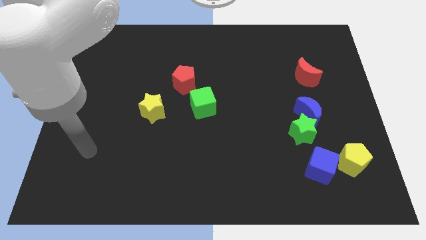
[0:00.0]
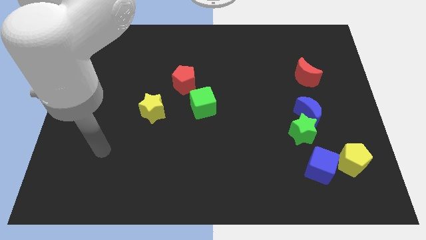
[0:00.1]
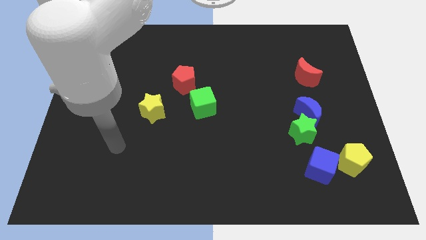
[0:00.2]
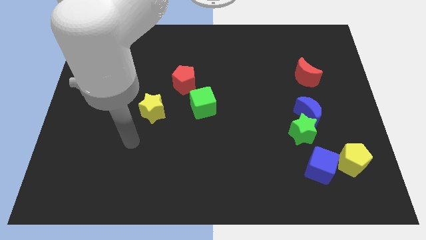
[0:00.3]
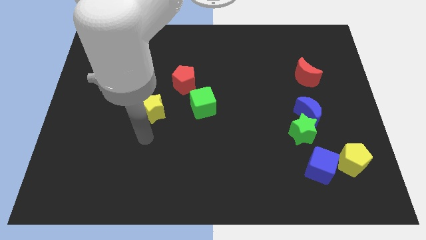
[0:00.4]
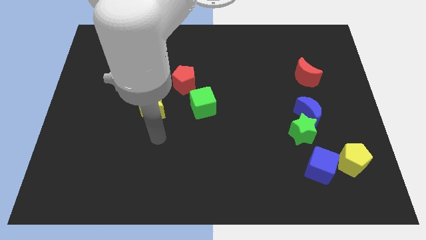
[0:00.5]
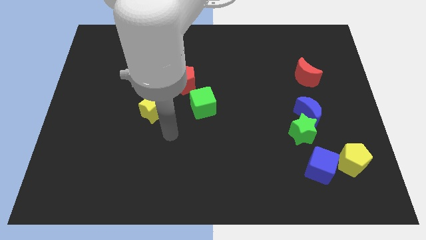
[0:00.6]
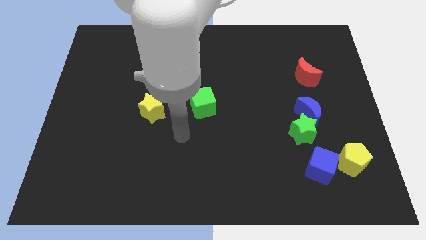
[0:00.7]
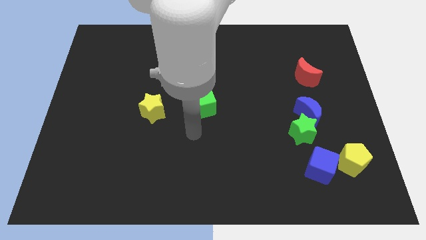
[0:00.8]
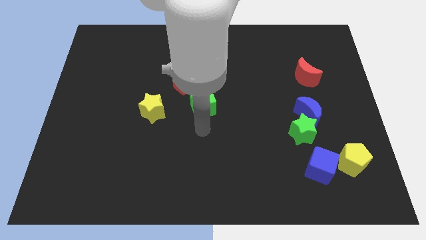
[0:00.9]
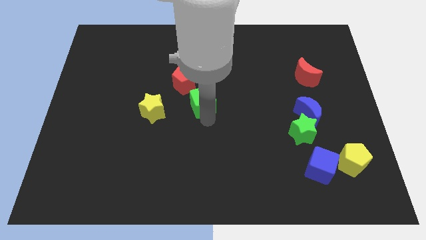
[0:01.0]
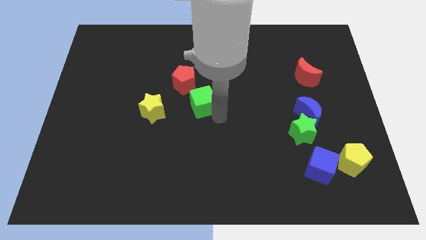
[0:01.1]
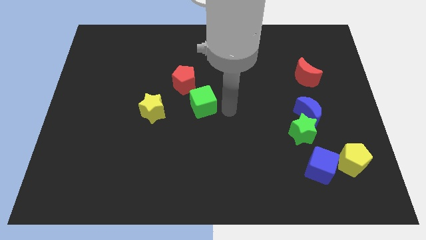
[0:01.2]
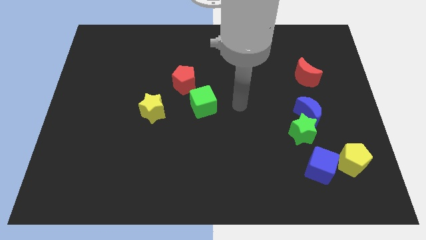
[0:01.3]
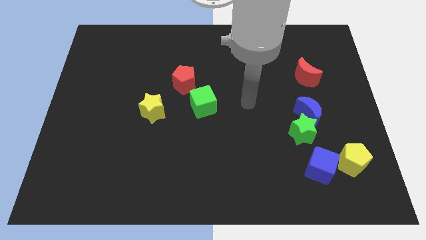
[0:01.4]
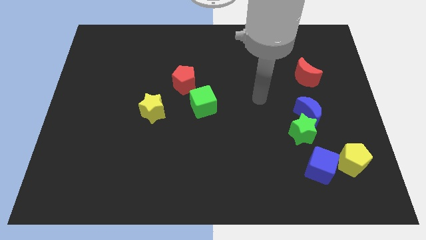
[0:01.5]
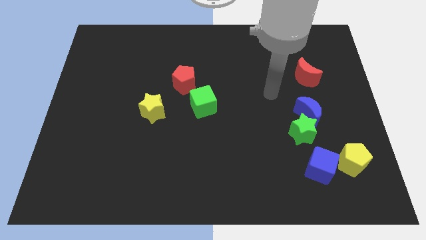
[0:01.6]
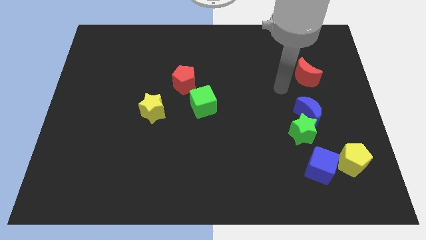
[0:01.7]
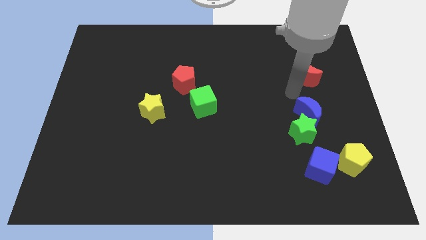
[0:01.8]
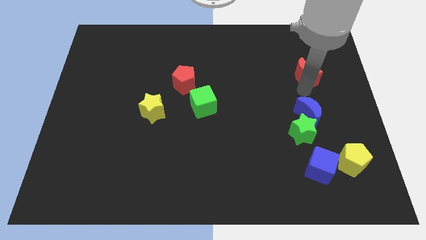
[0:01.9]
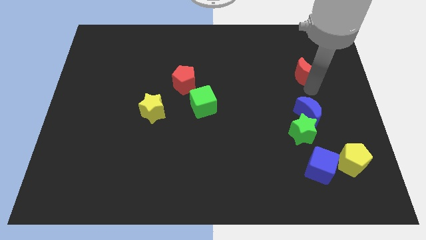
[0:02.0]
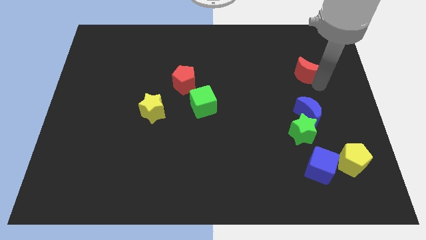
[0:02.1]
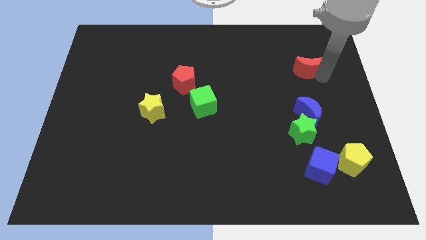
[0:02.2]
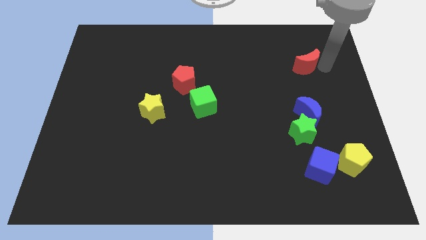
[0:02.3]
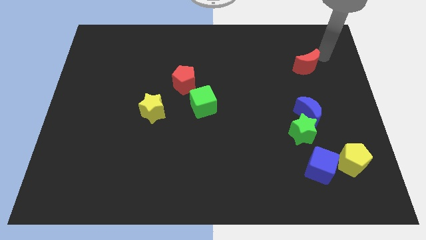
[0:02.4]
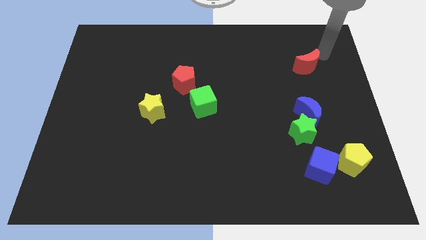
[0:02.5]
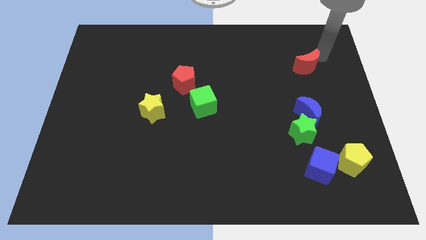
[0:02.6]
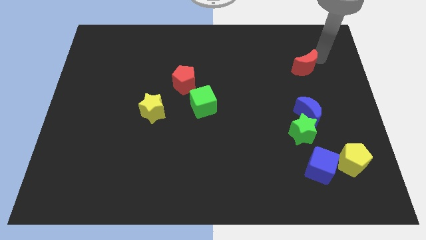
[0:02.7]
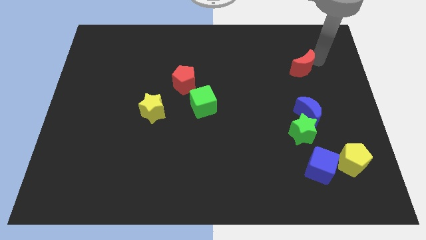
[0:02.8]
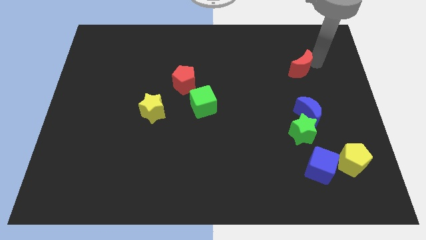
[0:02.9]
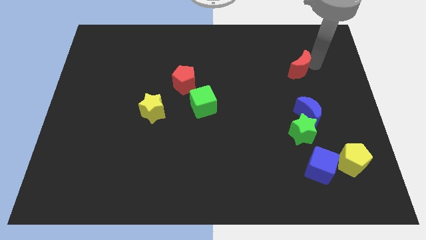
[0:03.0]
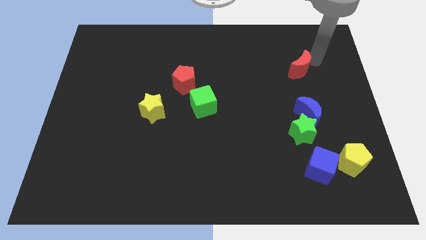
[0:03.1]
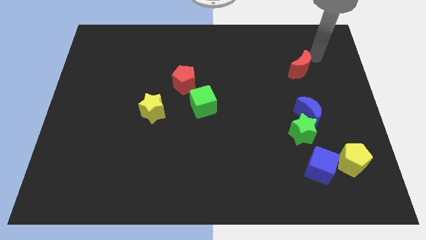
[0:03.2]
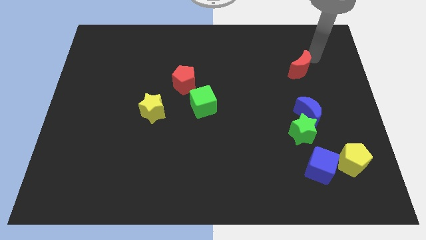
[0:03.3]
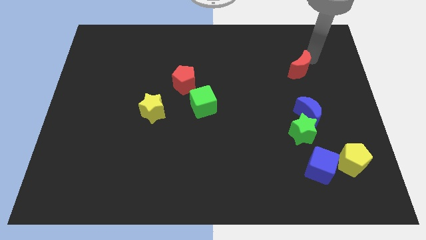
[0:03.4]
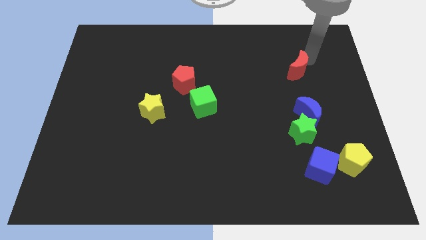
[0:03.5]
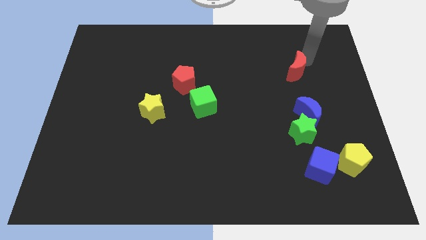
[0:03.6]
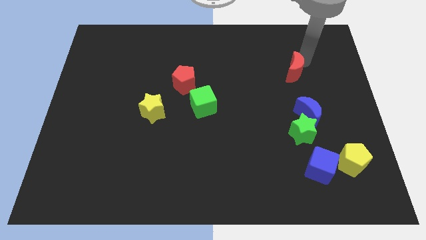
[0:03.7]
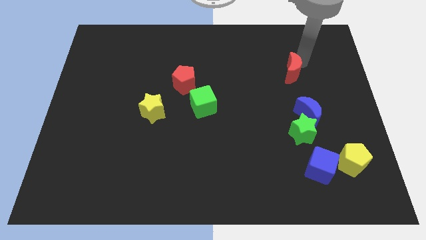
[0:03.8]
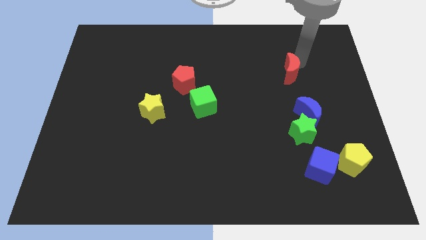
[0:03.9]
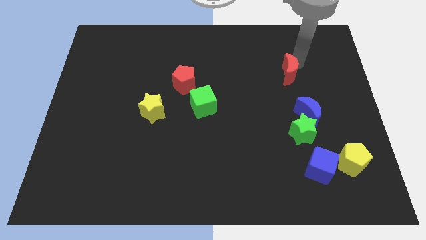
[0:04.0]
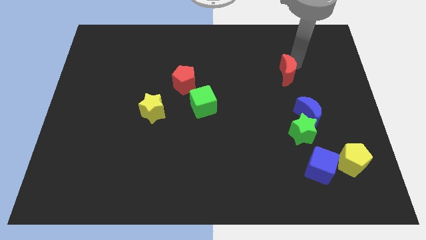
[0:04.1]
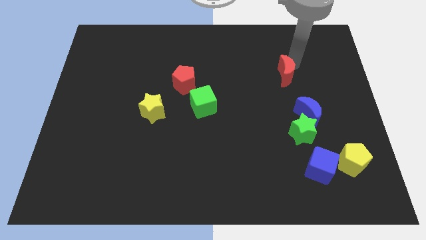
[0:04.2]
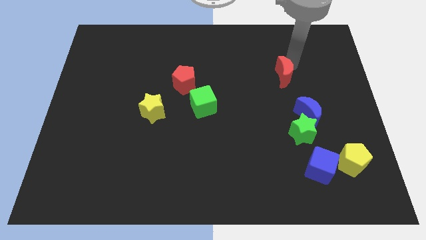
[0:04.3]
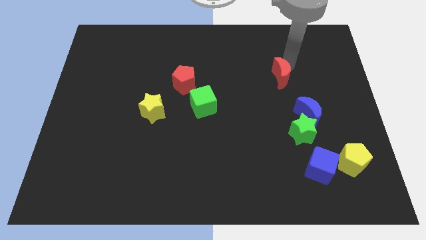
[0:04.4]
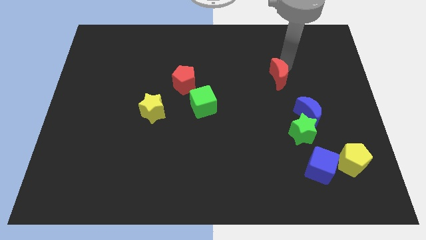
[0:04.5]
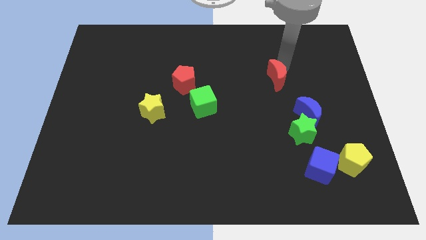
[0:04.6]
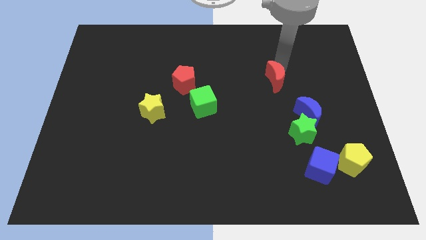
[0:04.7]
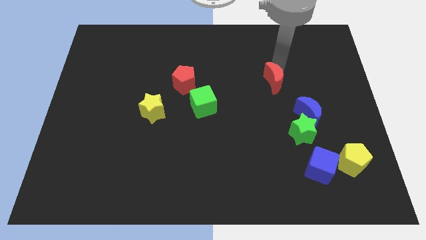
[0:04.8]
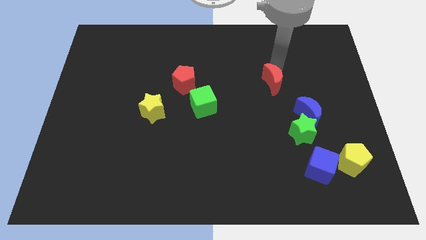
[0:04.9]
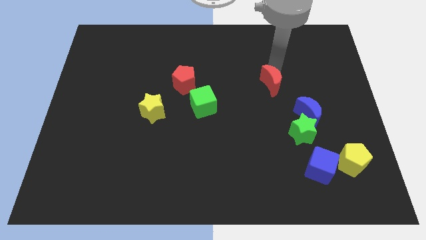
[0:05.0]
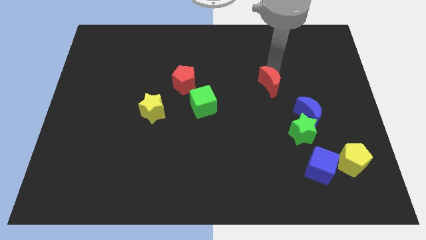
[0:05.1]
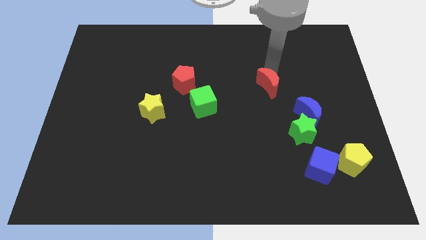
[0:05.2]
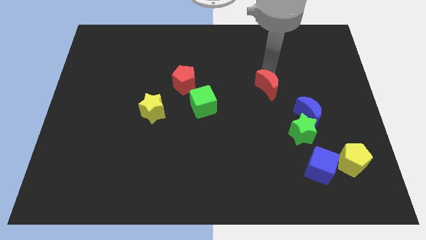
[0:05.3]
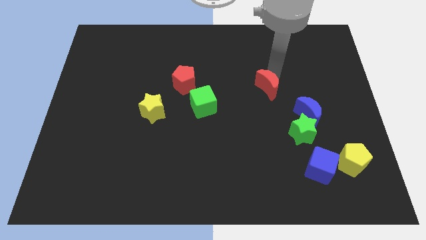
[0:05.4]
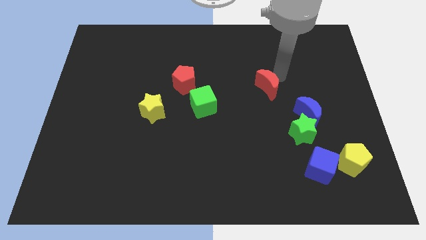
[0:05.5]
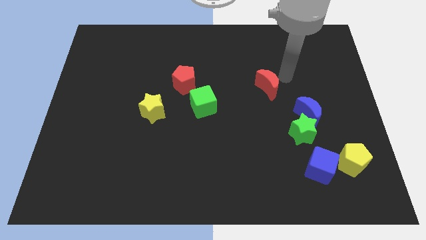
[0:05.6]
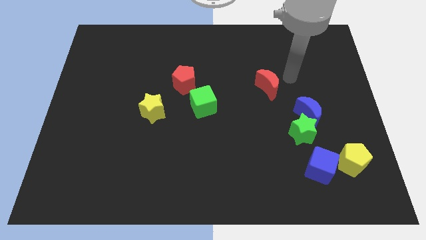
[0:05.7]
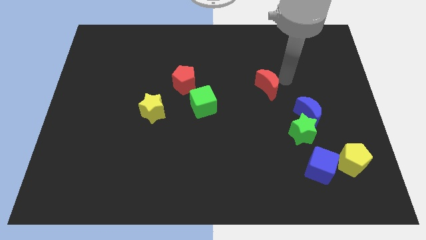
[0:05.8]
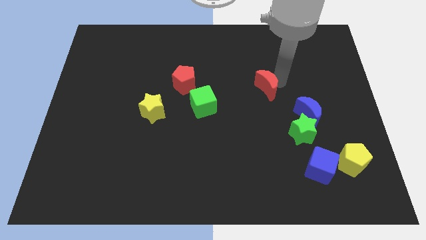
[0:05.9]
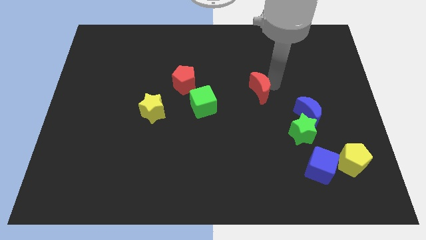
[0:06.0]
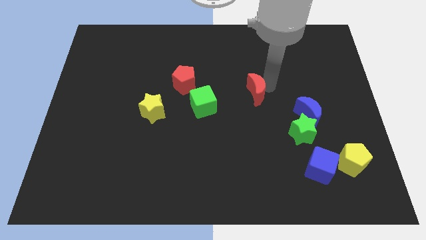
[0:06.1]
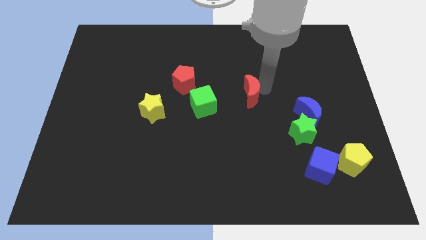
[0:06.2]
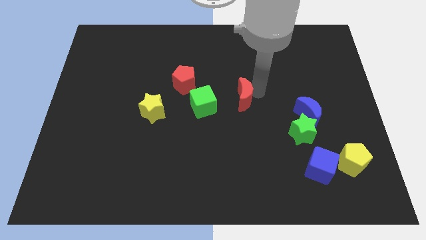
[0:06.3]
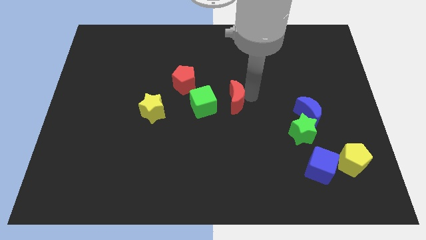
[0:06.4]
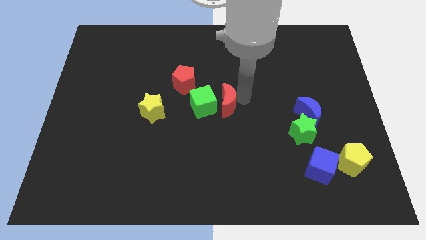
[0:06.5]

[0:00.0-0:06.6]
put the red moon to the green cube
